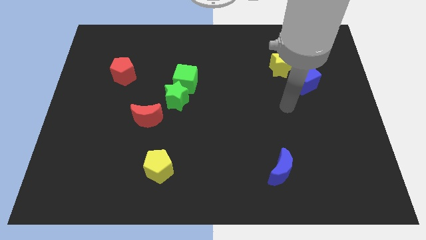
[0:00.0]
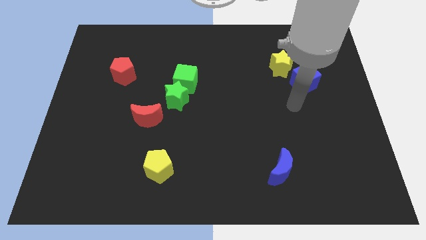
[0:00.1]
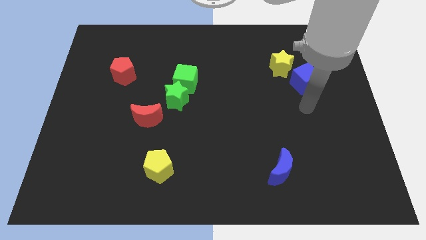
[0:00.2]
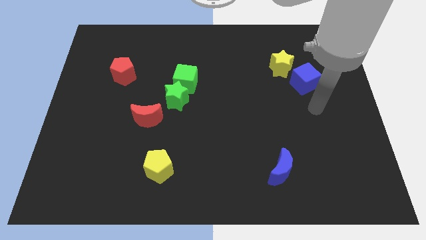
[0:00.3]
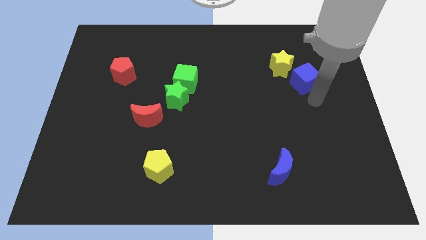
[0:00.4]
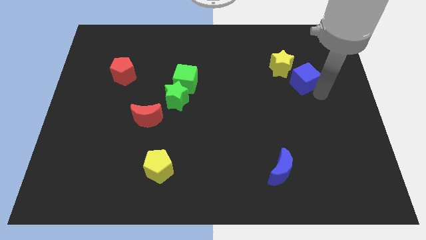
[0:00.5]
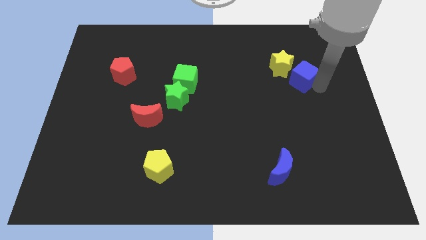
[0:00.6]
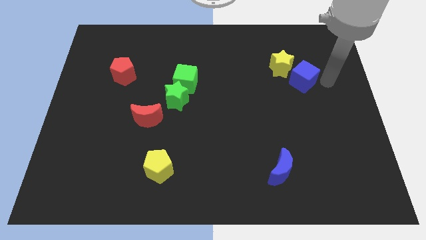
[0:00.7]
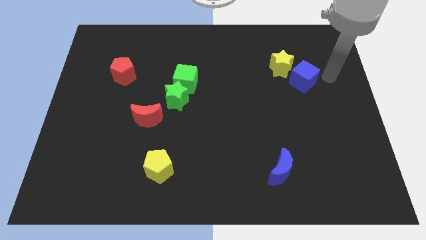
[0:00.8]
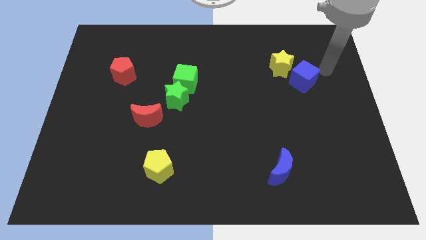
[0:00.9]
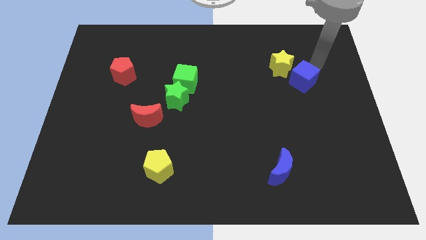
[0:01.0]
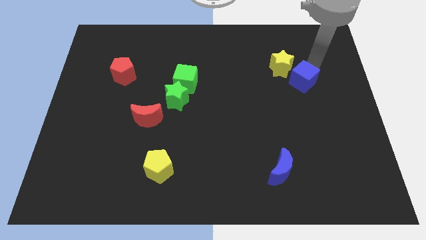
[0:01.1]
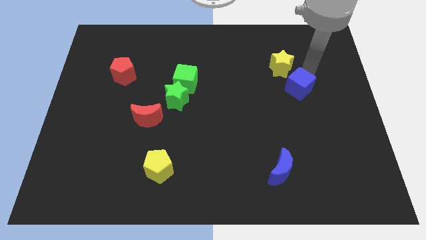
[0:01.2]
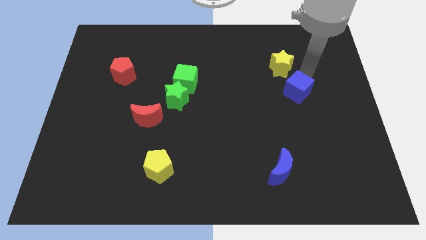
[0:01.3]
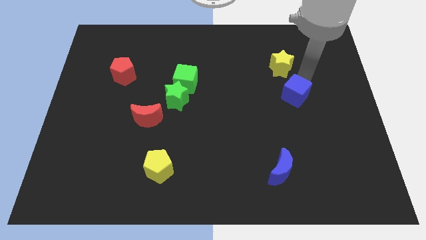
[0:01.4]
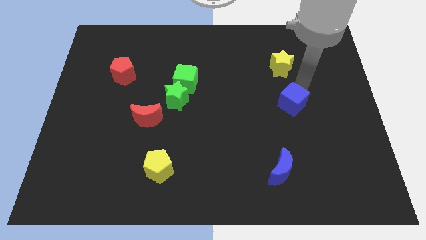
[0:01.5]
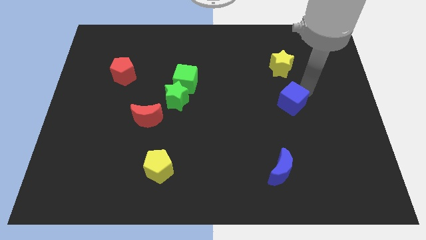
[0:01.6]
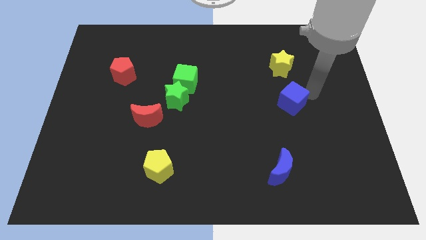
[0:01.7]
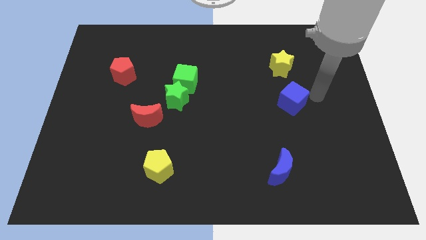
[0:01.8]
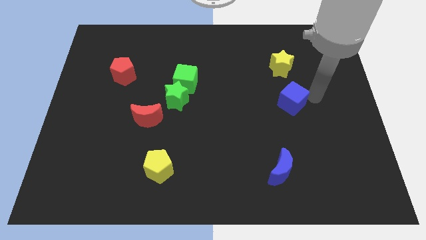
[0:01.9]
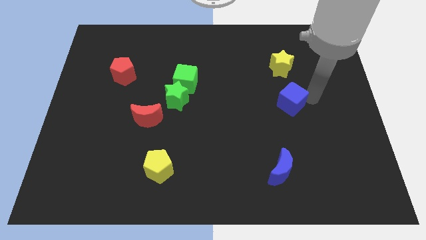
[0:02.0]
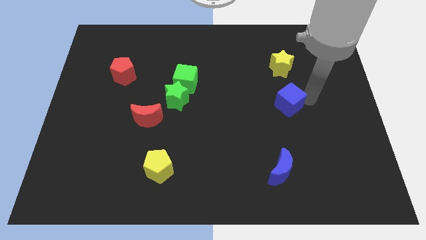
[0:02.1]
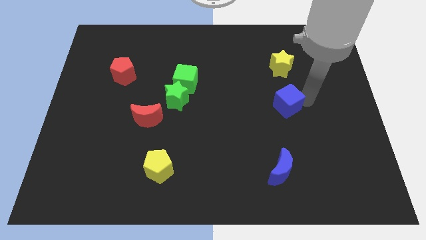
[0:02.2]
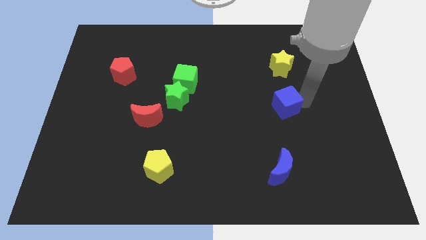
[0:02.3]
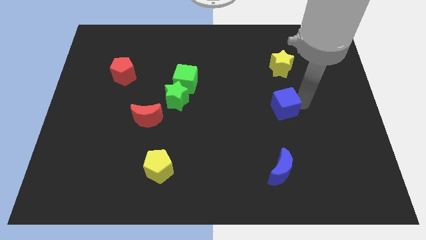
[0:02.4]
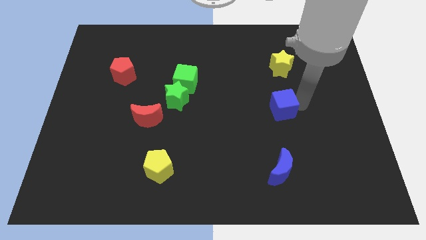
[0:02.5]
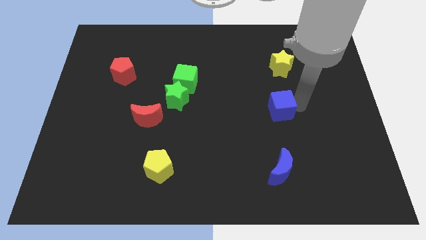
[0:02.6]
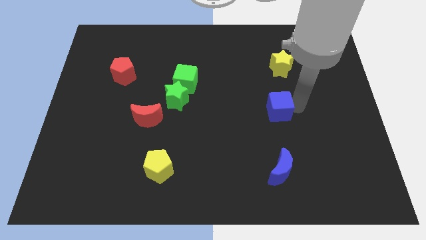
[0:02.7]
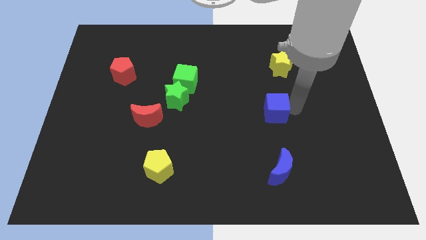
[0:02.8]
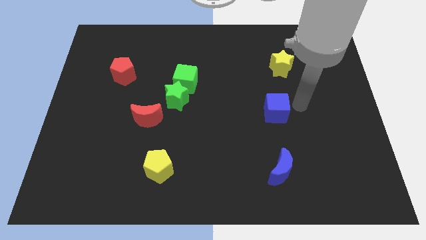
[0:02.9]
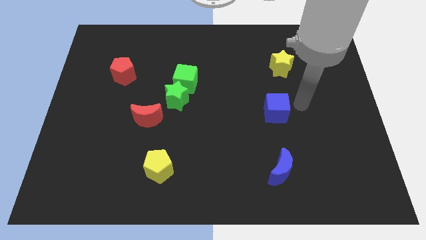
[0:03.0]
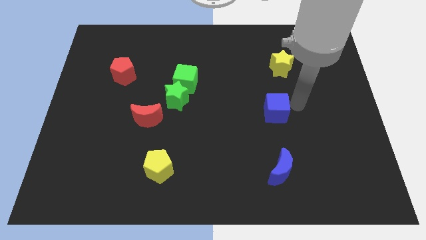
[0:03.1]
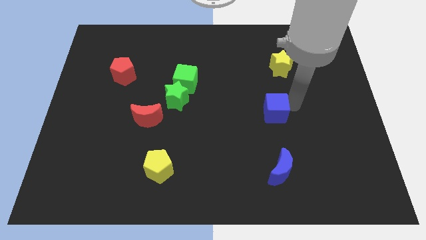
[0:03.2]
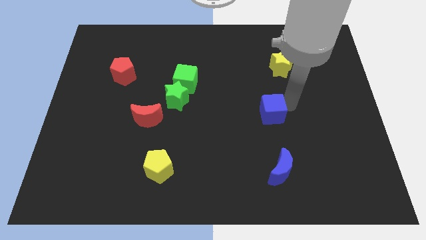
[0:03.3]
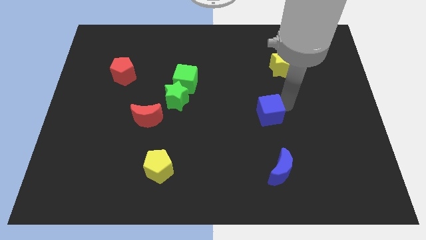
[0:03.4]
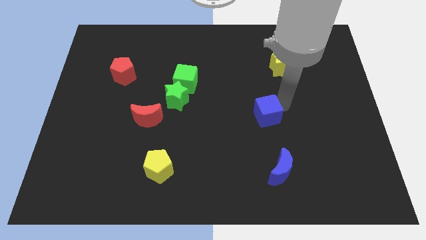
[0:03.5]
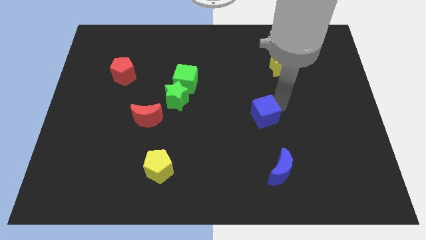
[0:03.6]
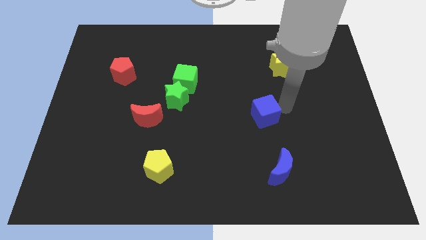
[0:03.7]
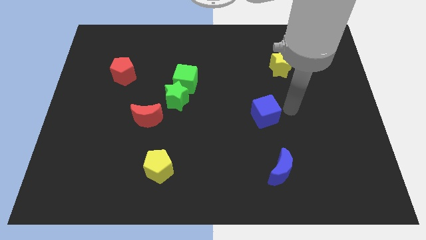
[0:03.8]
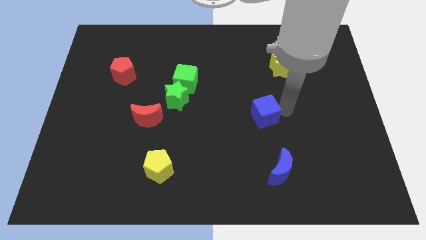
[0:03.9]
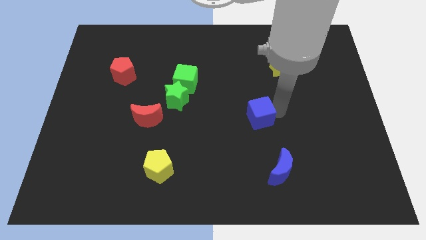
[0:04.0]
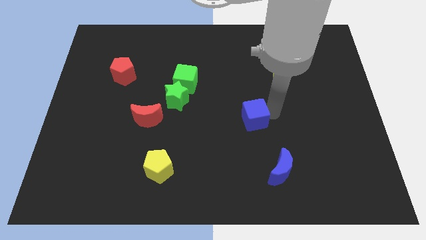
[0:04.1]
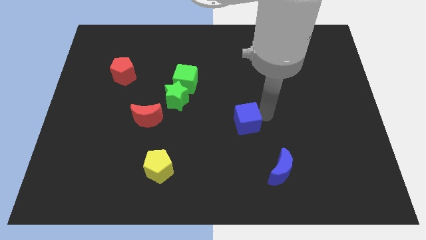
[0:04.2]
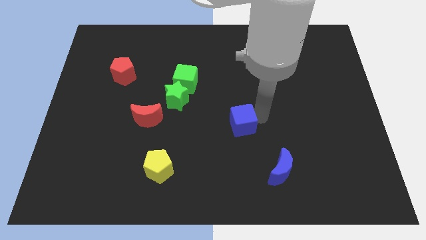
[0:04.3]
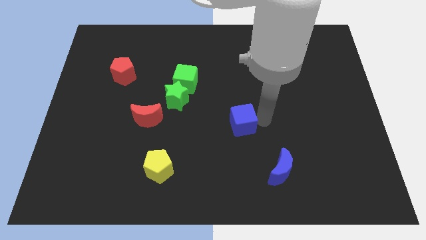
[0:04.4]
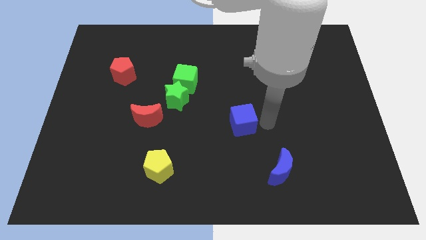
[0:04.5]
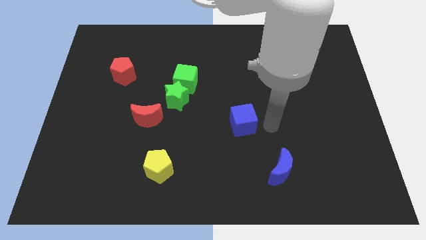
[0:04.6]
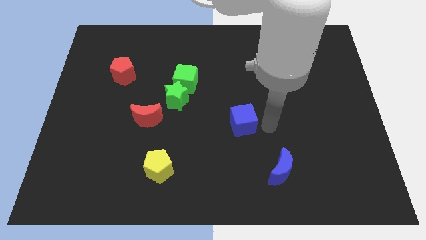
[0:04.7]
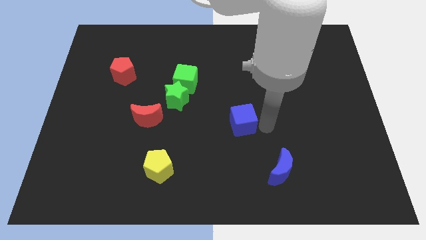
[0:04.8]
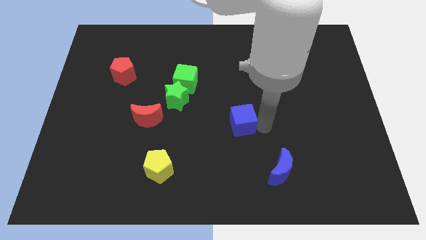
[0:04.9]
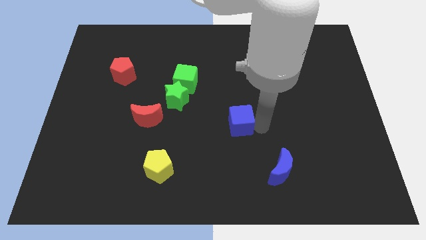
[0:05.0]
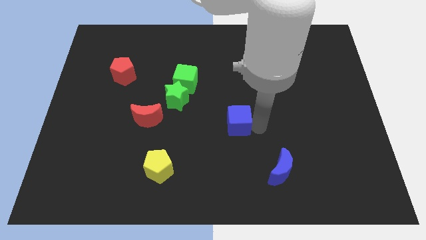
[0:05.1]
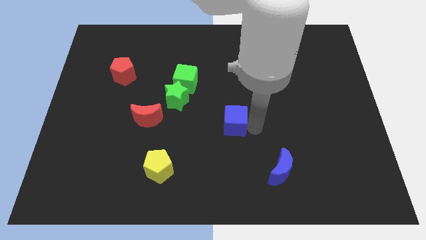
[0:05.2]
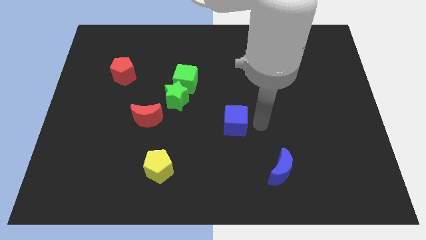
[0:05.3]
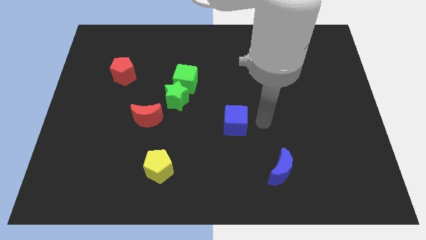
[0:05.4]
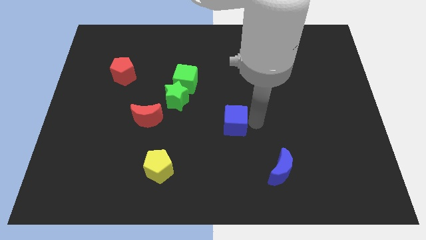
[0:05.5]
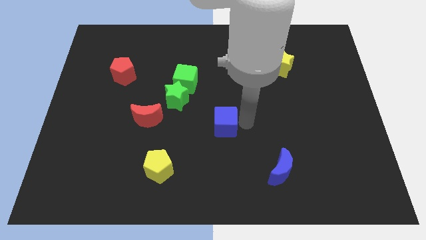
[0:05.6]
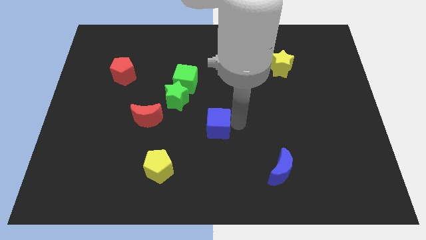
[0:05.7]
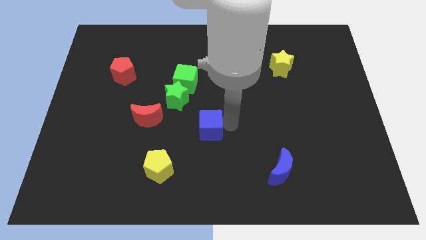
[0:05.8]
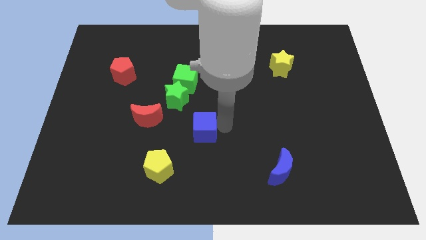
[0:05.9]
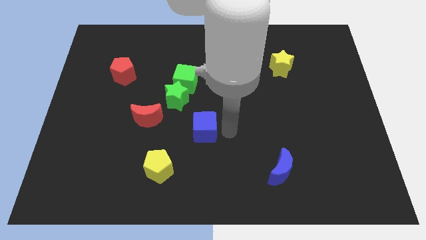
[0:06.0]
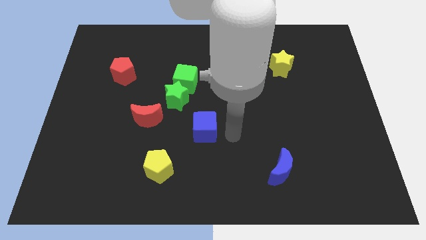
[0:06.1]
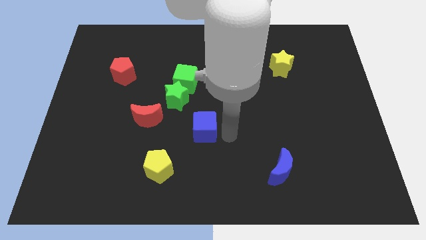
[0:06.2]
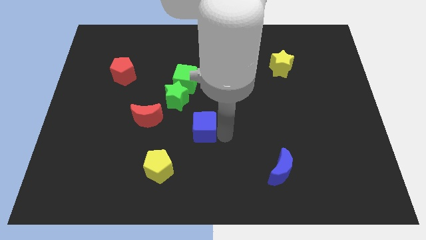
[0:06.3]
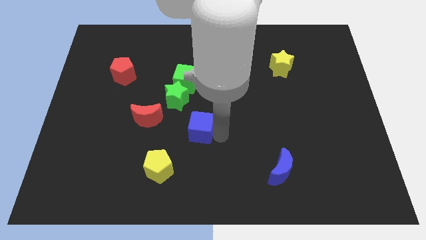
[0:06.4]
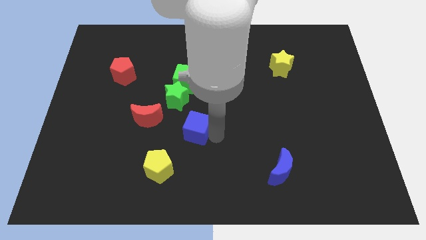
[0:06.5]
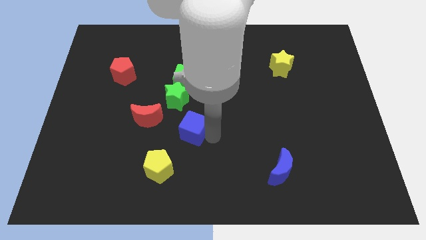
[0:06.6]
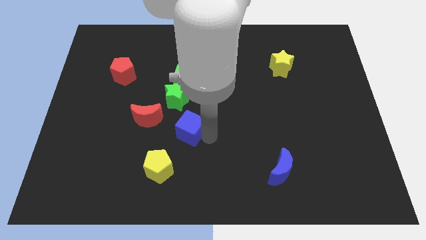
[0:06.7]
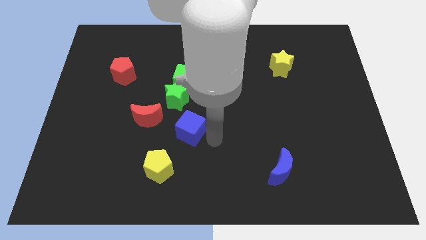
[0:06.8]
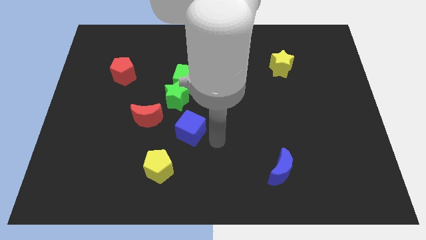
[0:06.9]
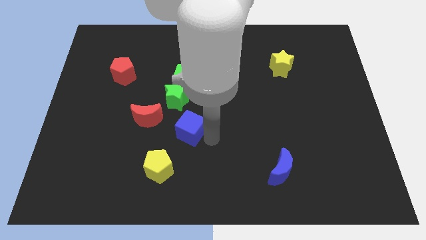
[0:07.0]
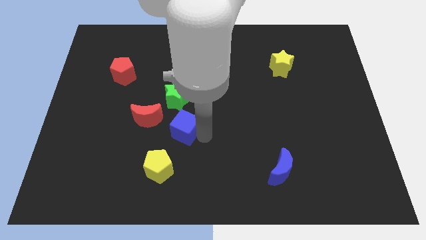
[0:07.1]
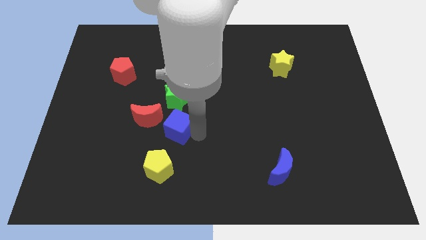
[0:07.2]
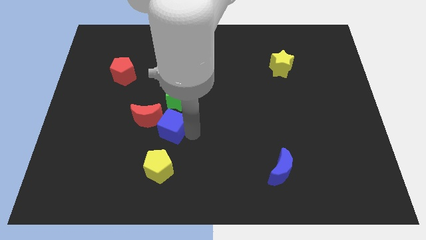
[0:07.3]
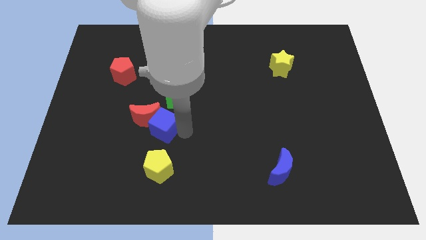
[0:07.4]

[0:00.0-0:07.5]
put the blue cube close to the red moon
